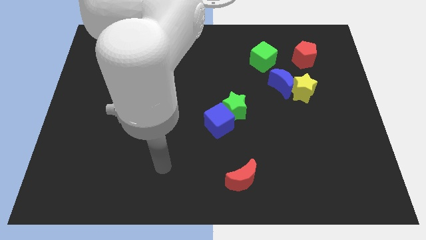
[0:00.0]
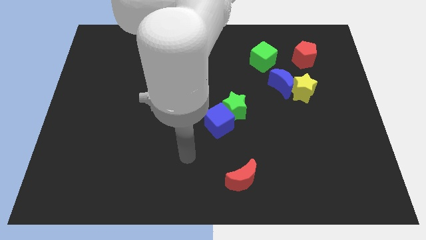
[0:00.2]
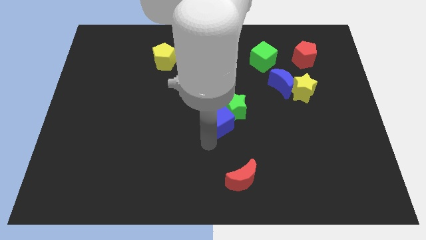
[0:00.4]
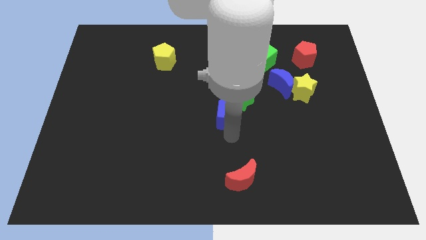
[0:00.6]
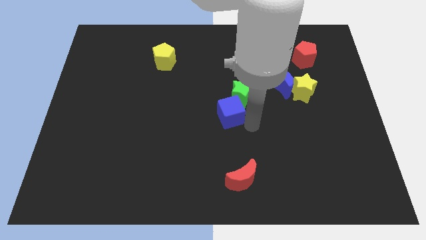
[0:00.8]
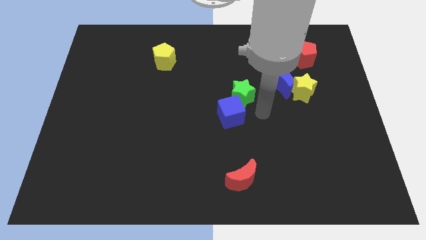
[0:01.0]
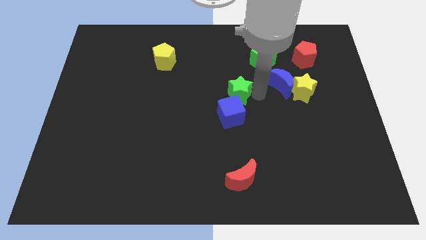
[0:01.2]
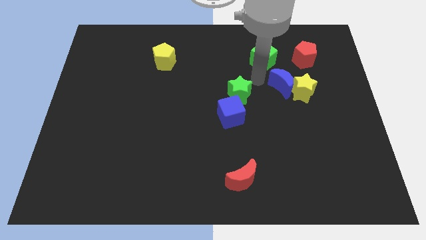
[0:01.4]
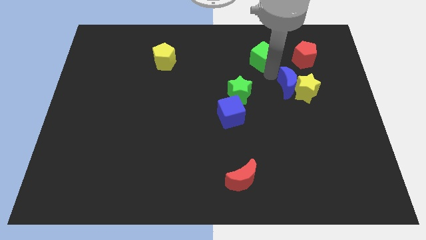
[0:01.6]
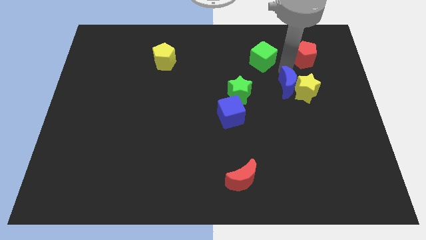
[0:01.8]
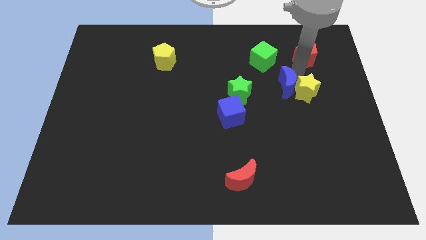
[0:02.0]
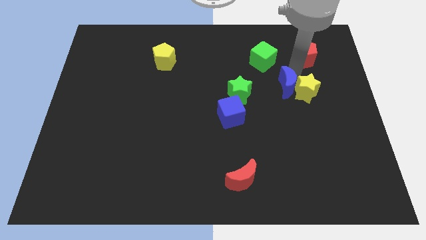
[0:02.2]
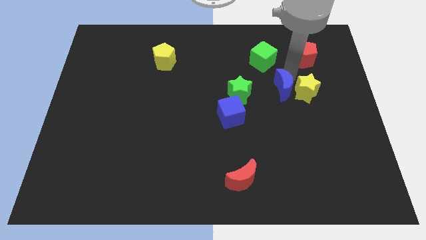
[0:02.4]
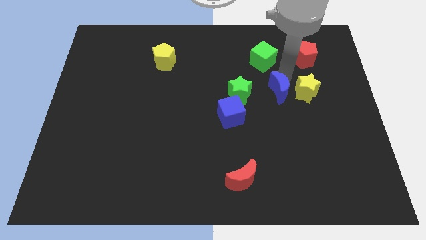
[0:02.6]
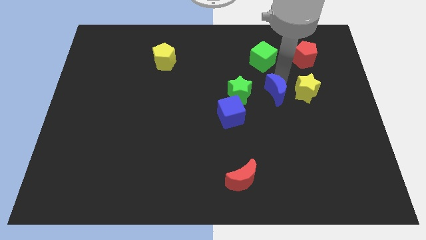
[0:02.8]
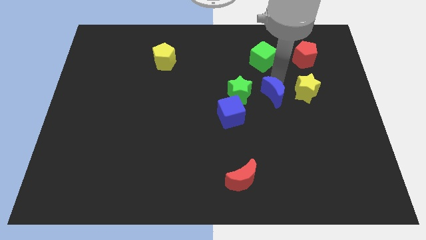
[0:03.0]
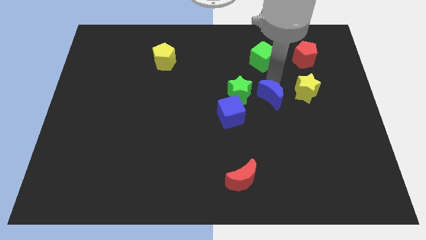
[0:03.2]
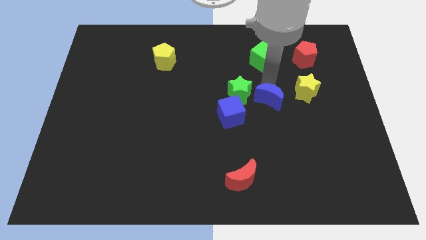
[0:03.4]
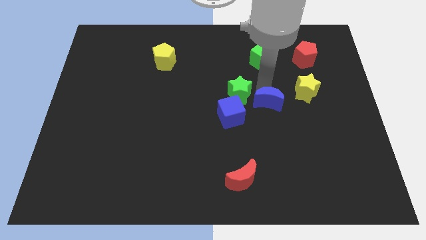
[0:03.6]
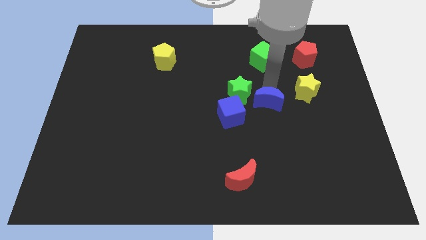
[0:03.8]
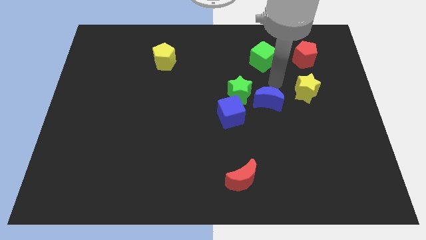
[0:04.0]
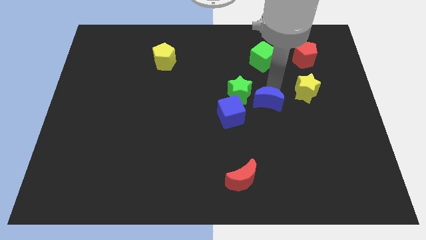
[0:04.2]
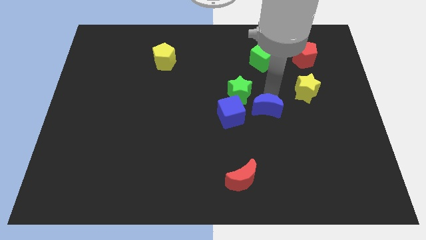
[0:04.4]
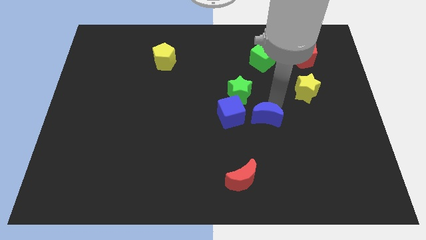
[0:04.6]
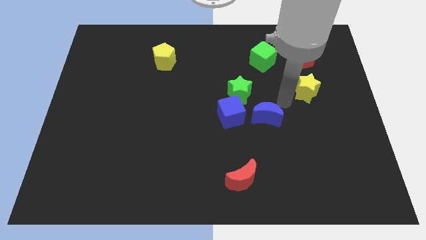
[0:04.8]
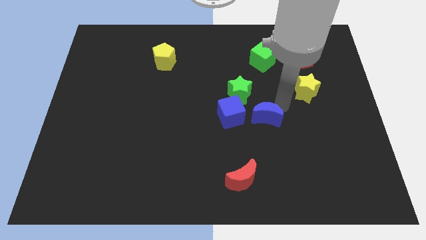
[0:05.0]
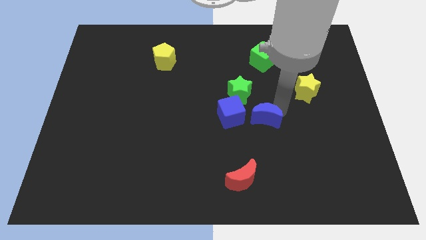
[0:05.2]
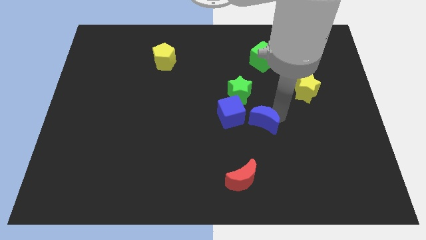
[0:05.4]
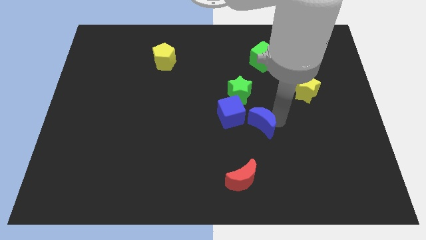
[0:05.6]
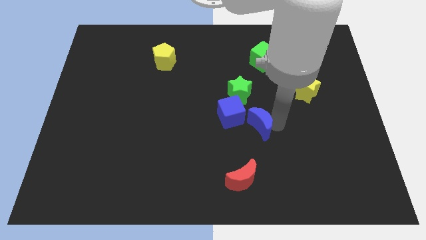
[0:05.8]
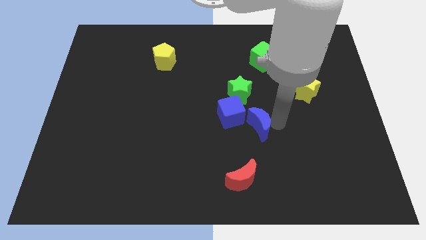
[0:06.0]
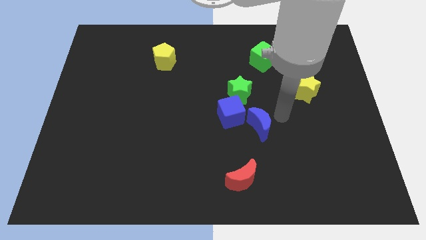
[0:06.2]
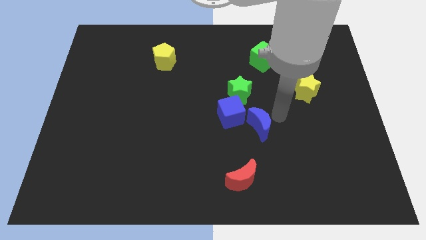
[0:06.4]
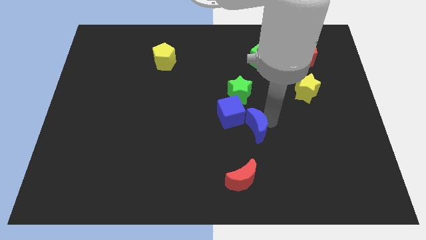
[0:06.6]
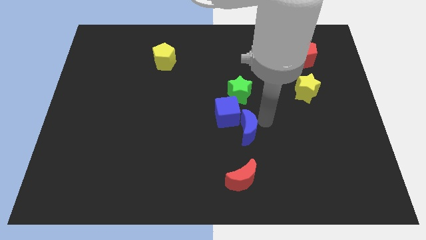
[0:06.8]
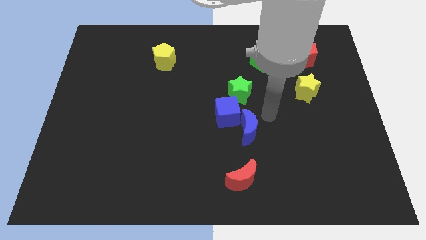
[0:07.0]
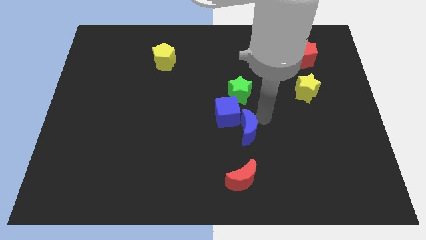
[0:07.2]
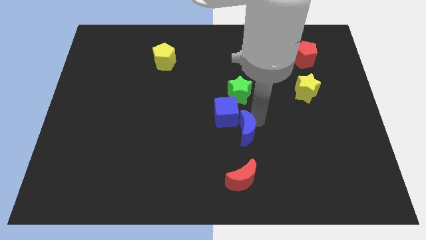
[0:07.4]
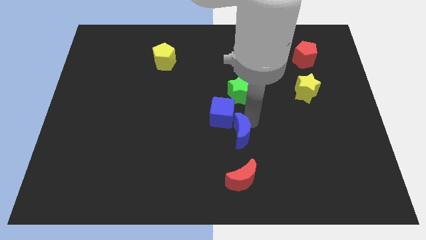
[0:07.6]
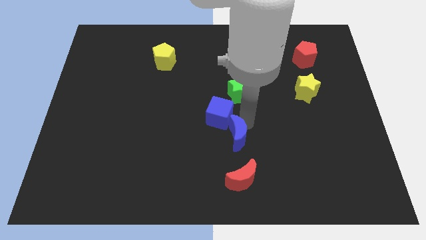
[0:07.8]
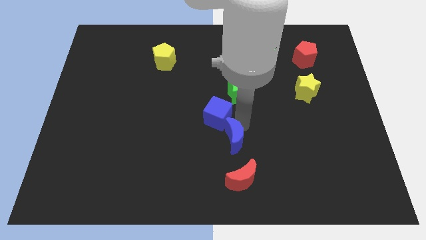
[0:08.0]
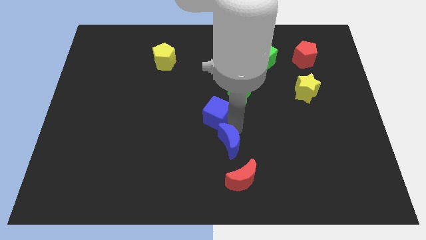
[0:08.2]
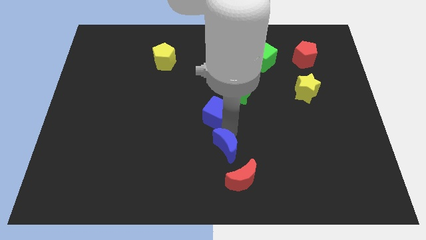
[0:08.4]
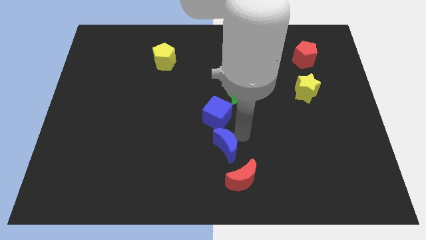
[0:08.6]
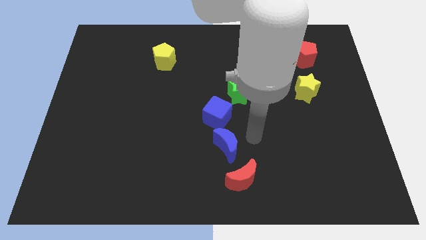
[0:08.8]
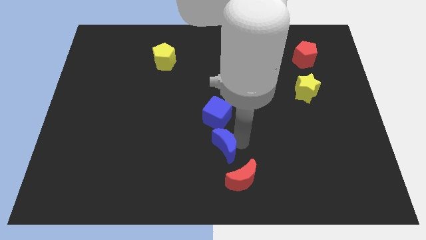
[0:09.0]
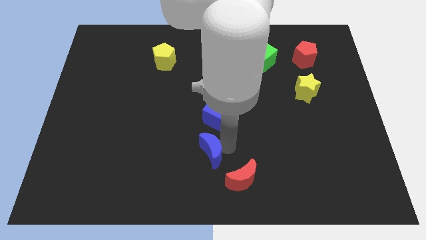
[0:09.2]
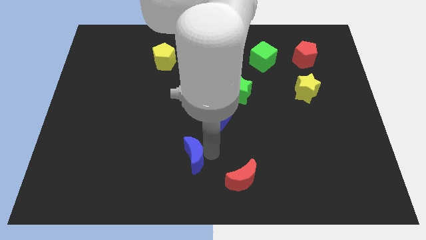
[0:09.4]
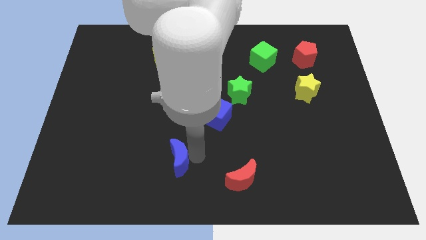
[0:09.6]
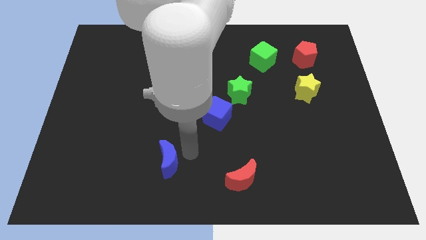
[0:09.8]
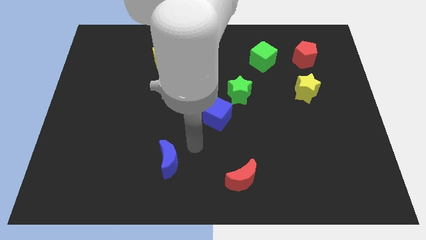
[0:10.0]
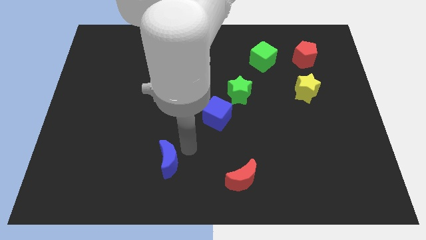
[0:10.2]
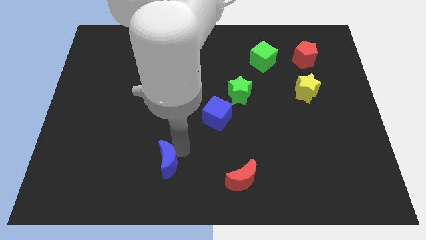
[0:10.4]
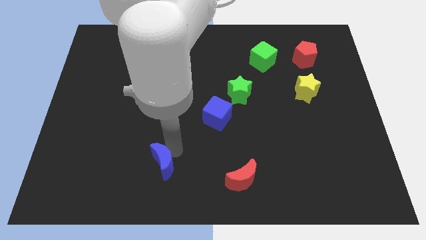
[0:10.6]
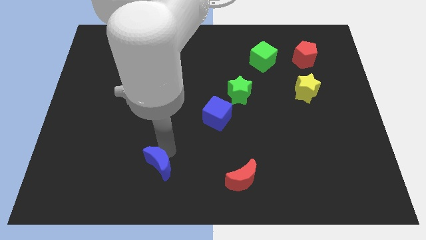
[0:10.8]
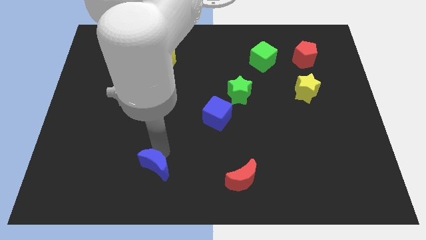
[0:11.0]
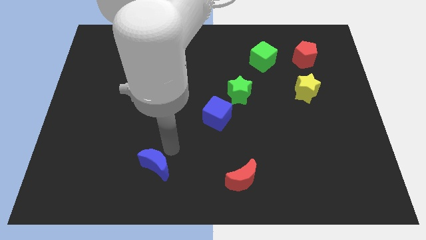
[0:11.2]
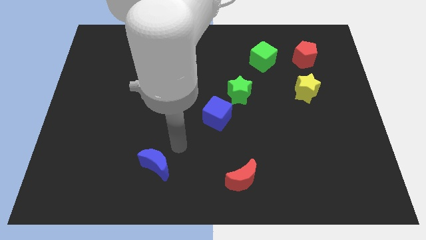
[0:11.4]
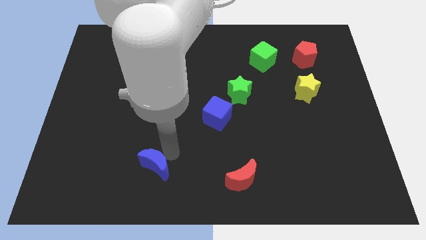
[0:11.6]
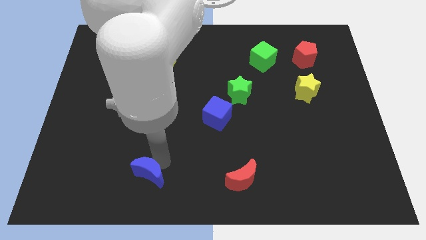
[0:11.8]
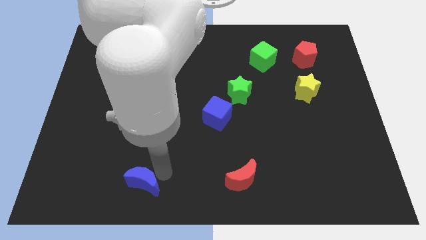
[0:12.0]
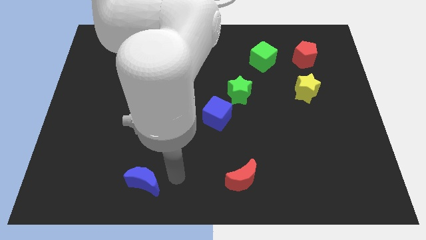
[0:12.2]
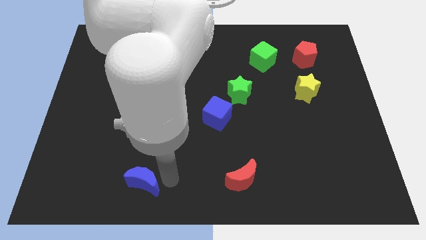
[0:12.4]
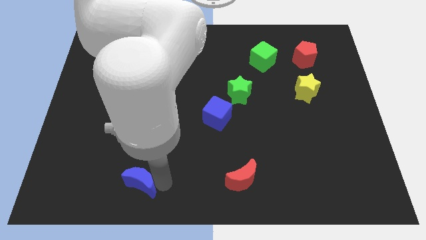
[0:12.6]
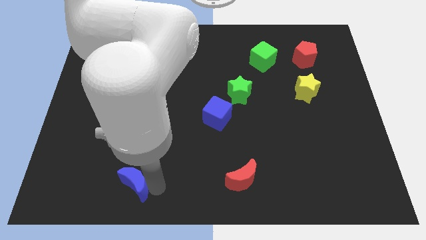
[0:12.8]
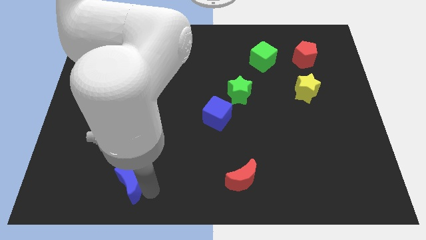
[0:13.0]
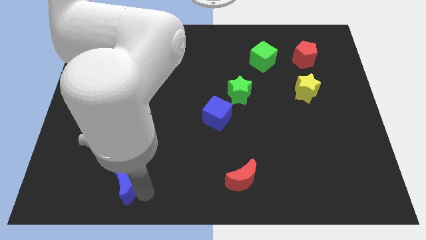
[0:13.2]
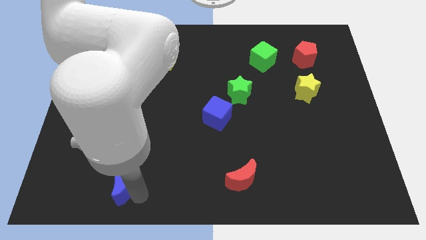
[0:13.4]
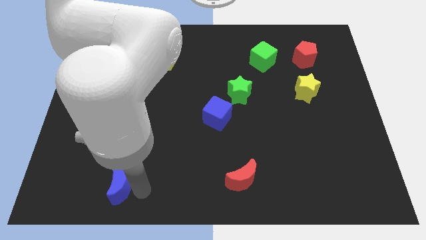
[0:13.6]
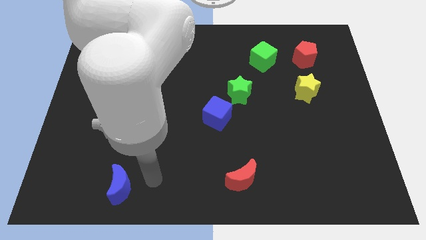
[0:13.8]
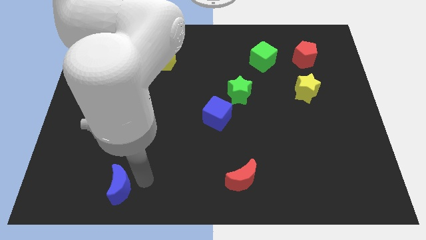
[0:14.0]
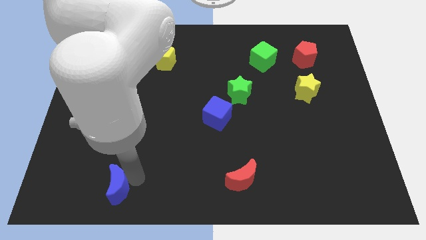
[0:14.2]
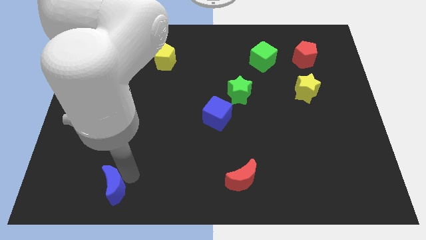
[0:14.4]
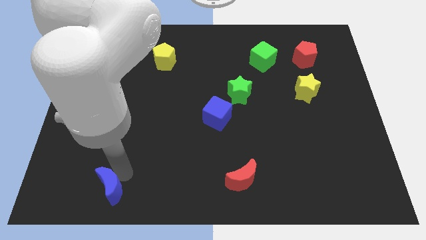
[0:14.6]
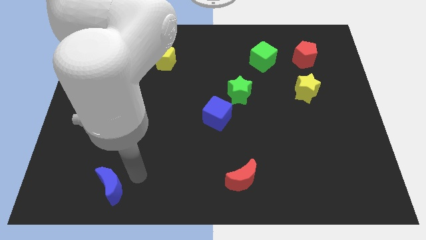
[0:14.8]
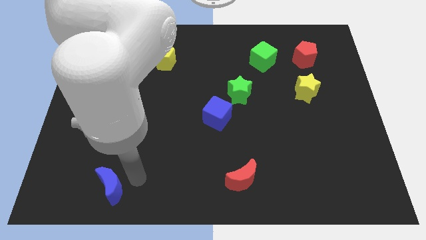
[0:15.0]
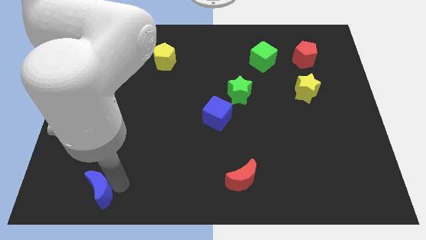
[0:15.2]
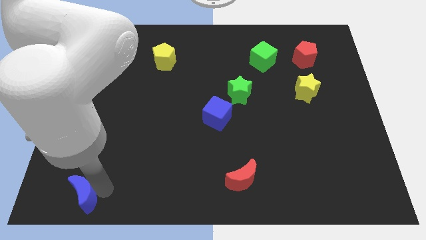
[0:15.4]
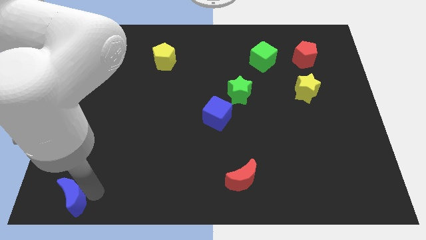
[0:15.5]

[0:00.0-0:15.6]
put the blue moon to the lower left corner
